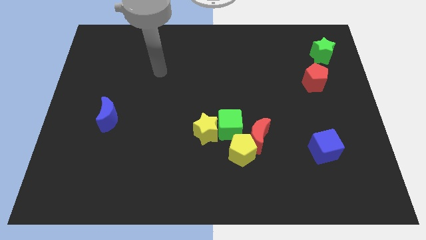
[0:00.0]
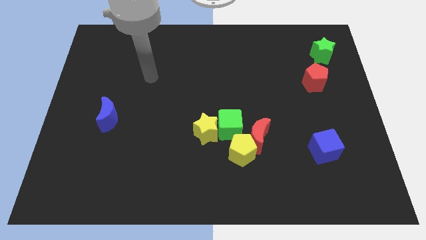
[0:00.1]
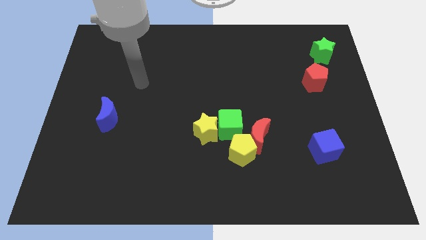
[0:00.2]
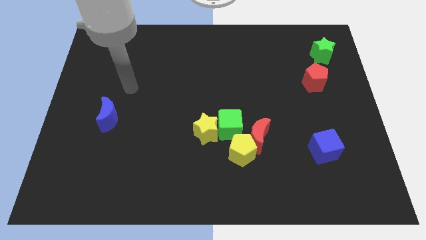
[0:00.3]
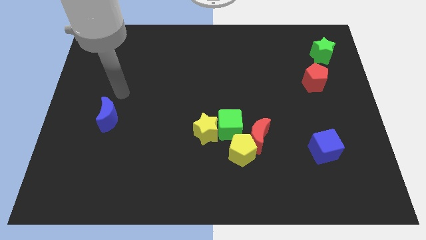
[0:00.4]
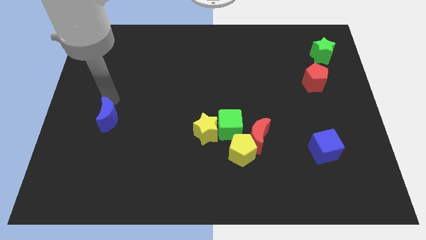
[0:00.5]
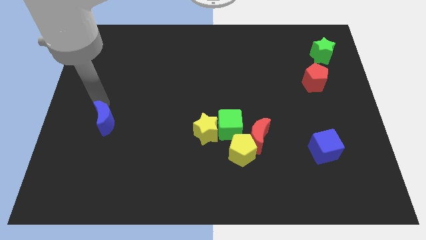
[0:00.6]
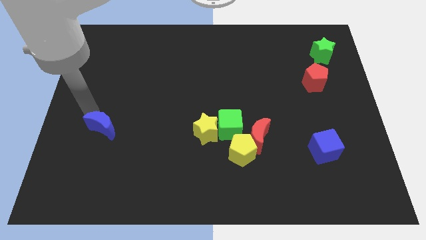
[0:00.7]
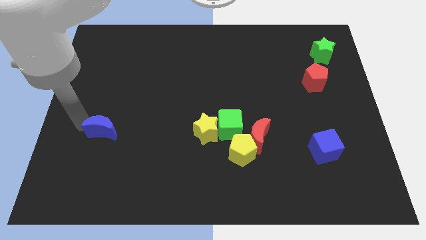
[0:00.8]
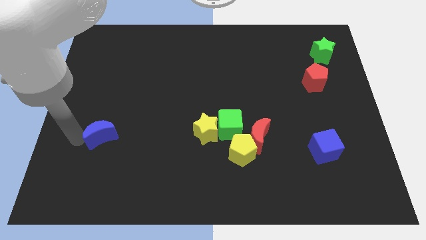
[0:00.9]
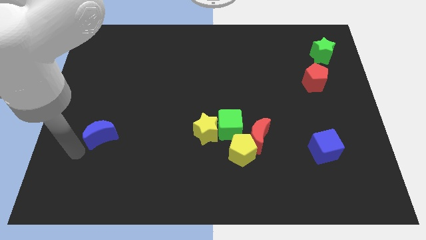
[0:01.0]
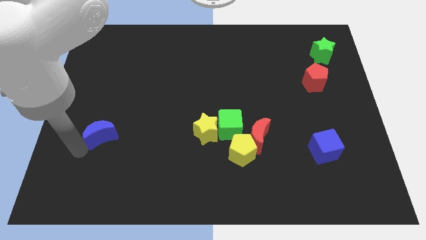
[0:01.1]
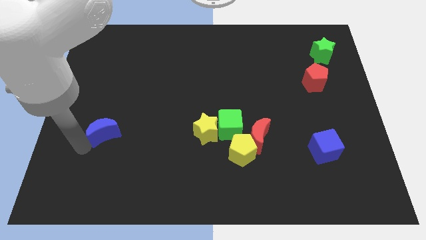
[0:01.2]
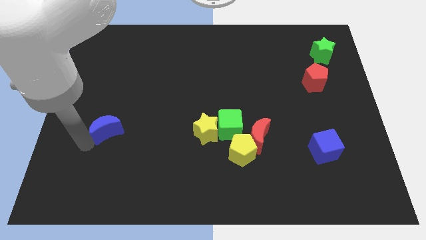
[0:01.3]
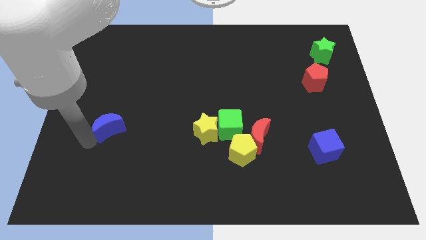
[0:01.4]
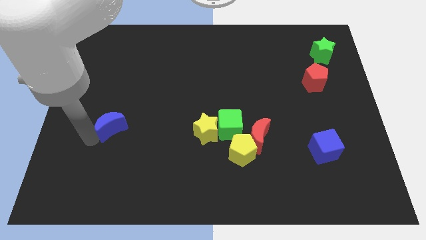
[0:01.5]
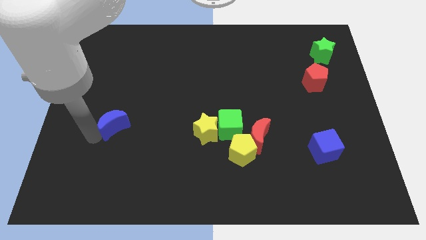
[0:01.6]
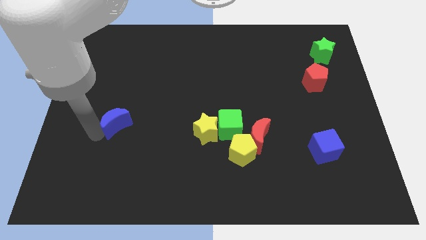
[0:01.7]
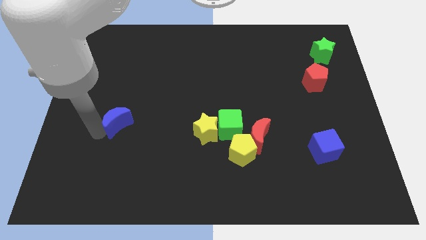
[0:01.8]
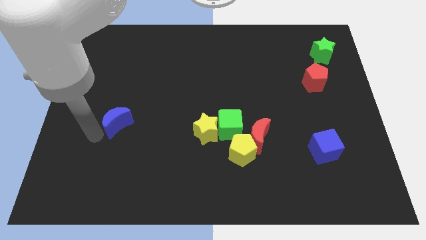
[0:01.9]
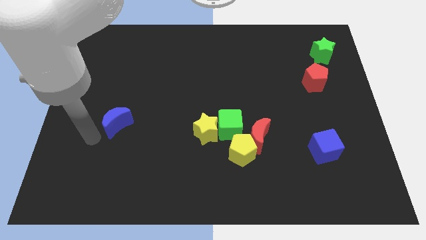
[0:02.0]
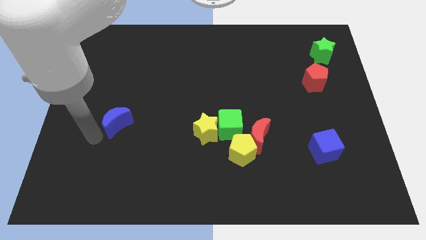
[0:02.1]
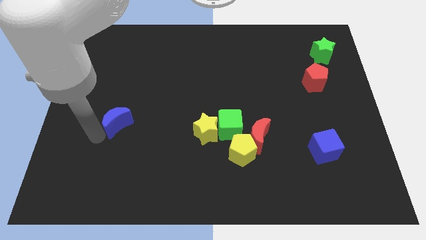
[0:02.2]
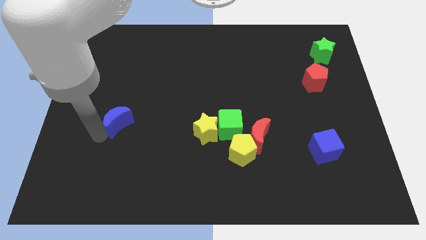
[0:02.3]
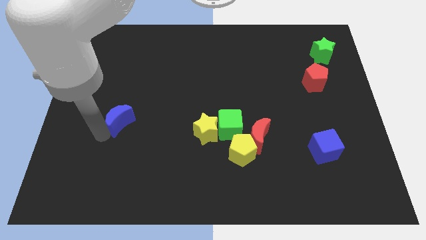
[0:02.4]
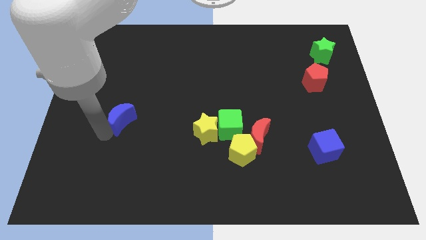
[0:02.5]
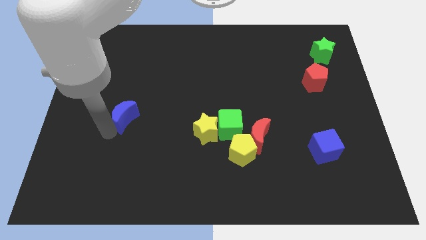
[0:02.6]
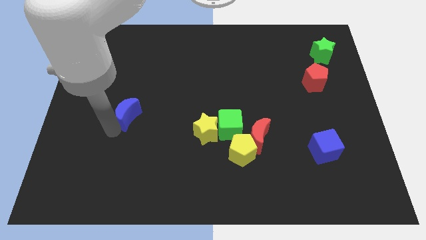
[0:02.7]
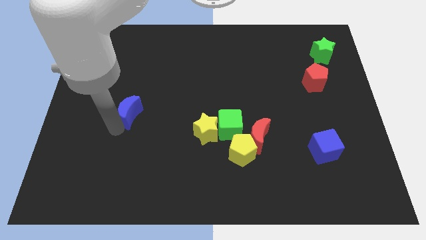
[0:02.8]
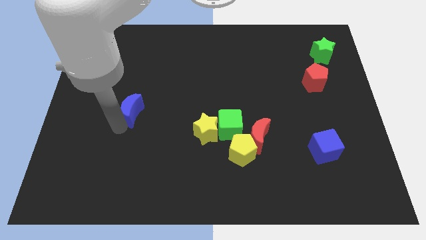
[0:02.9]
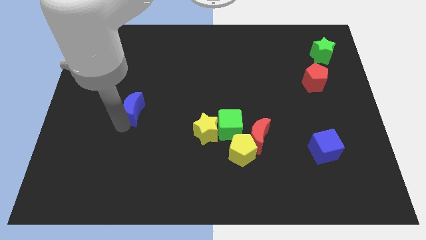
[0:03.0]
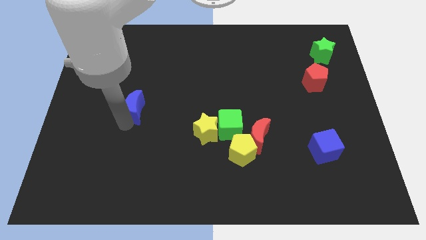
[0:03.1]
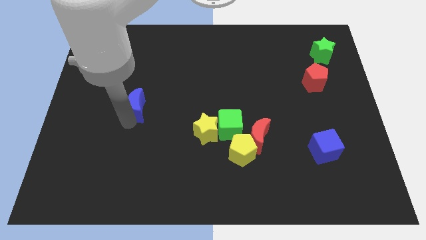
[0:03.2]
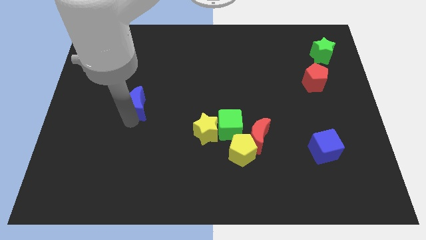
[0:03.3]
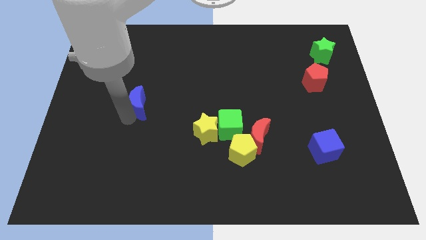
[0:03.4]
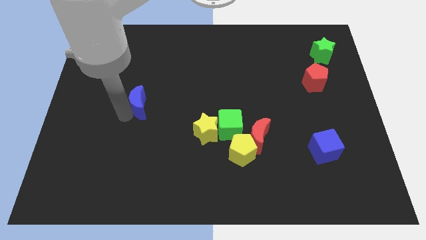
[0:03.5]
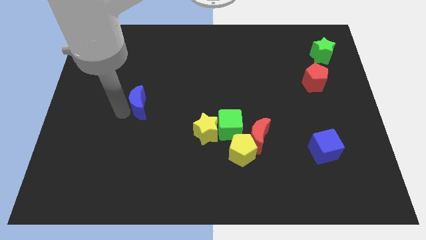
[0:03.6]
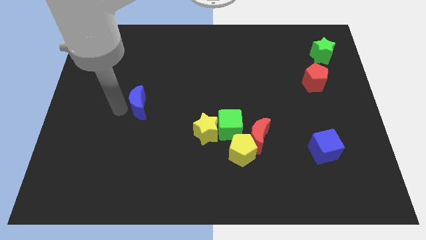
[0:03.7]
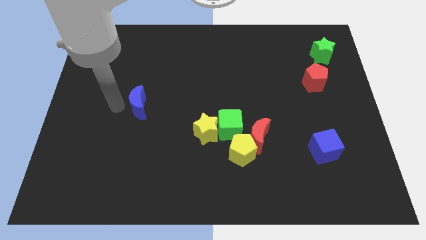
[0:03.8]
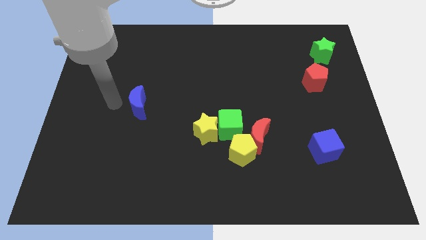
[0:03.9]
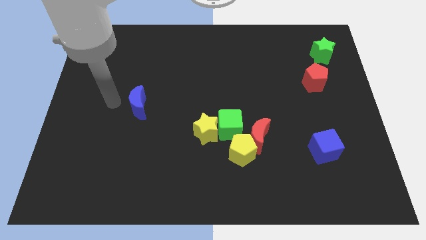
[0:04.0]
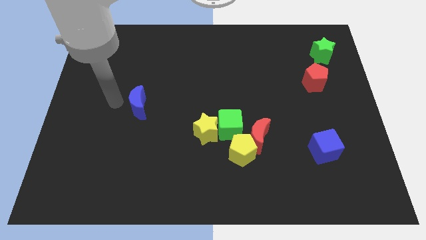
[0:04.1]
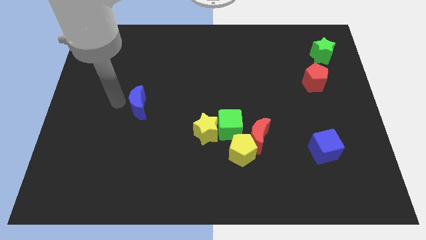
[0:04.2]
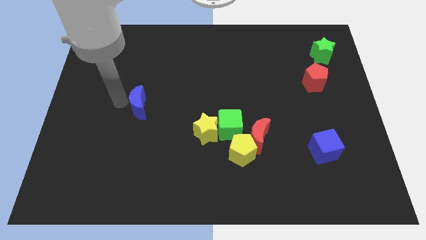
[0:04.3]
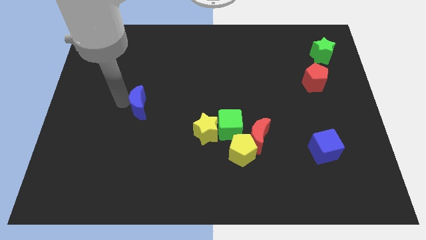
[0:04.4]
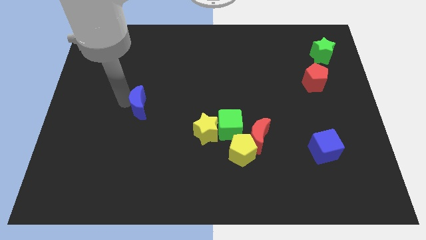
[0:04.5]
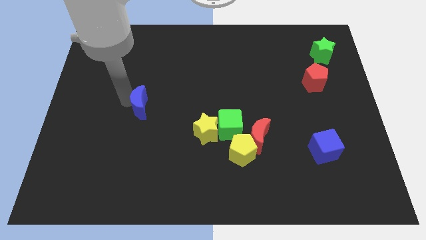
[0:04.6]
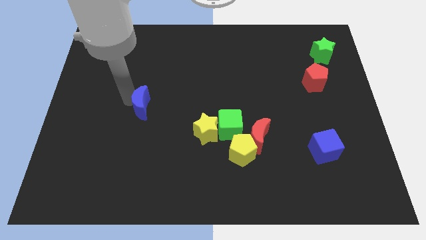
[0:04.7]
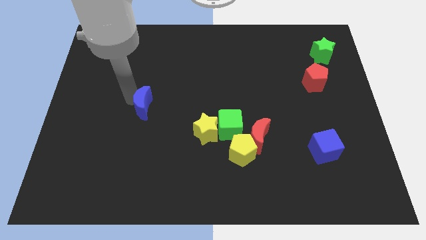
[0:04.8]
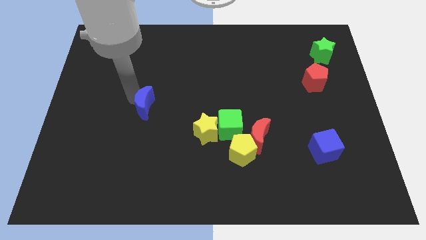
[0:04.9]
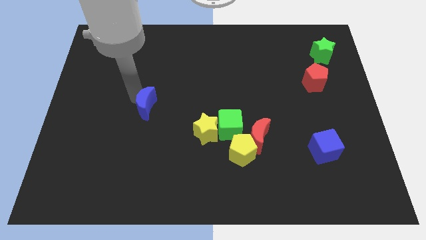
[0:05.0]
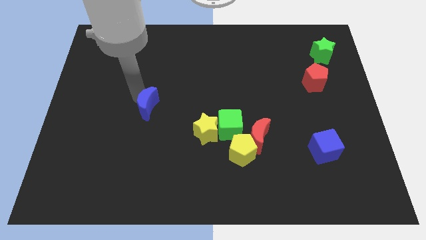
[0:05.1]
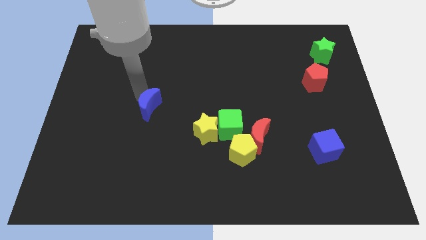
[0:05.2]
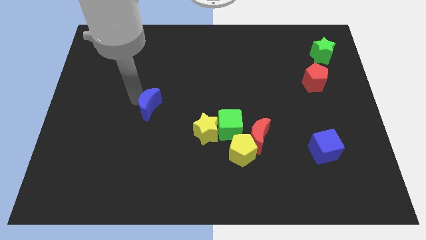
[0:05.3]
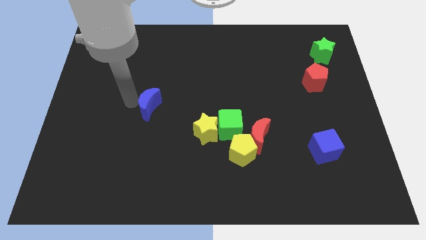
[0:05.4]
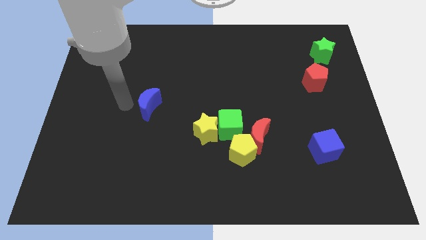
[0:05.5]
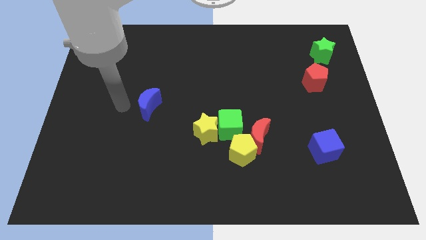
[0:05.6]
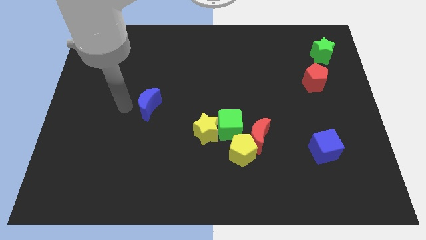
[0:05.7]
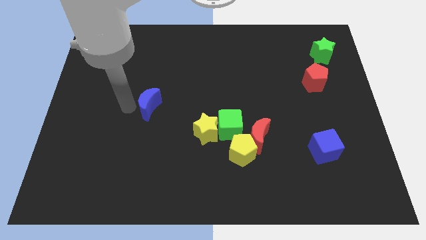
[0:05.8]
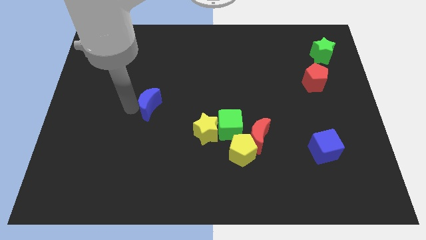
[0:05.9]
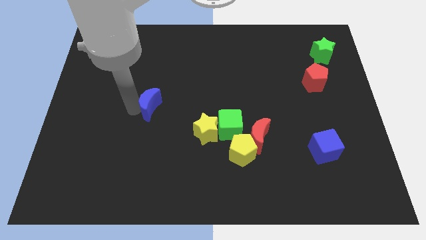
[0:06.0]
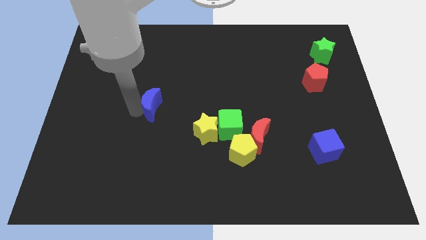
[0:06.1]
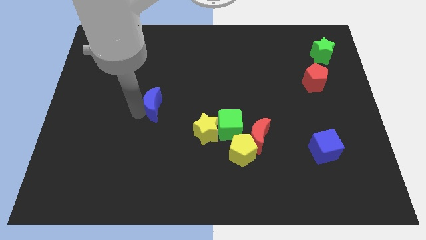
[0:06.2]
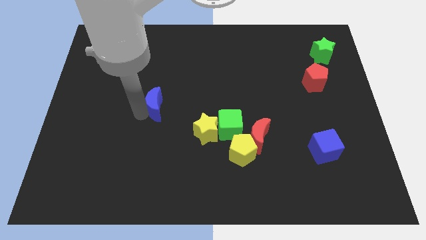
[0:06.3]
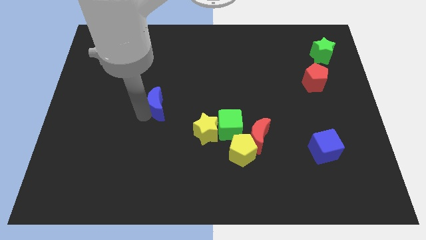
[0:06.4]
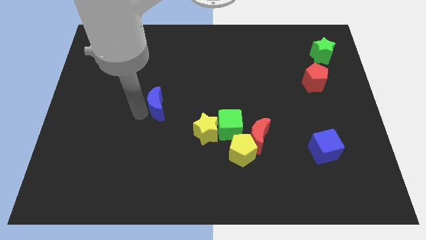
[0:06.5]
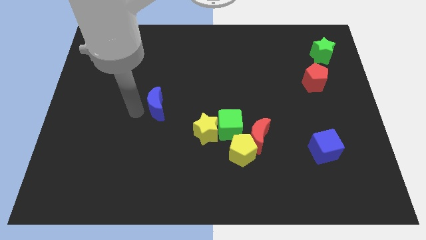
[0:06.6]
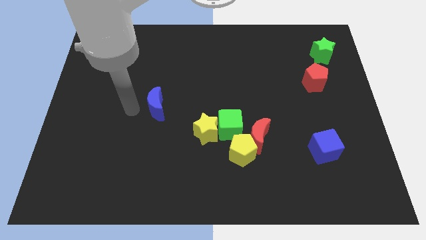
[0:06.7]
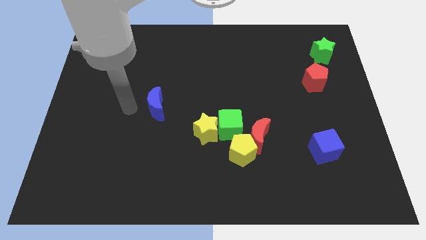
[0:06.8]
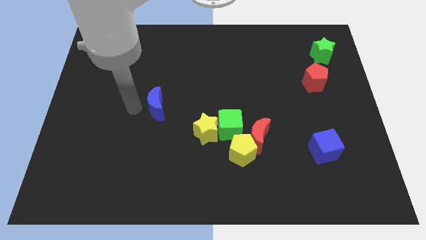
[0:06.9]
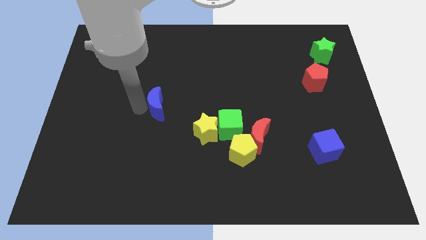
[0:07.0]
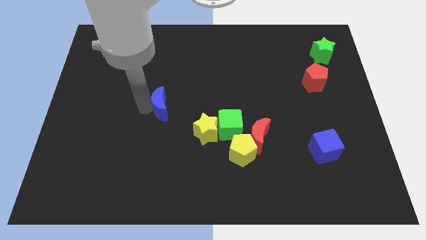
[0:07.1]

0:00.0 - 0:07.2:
put the blue moon to the center of the board
